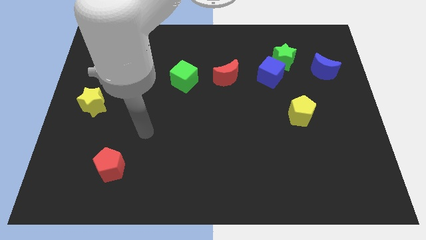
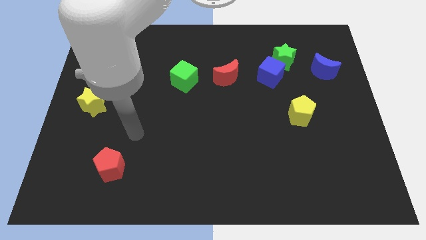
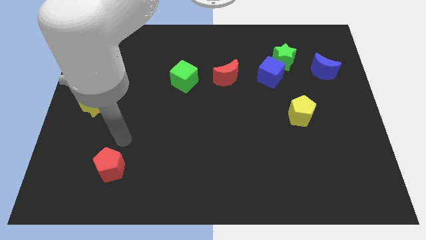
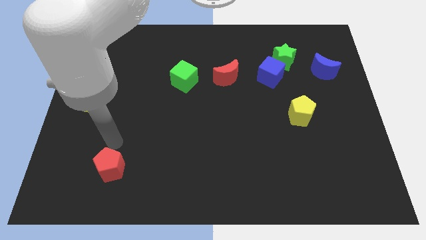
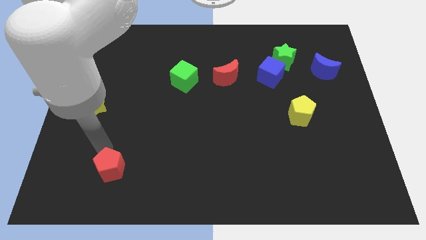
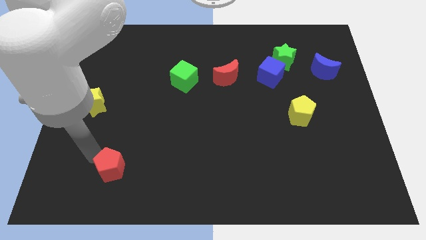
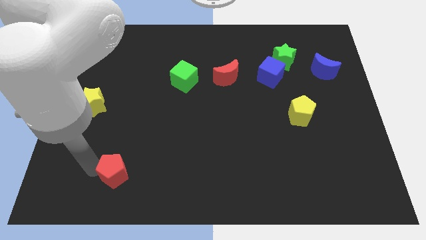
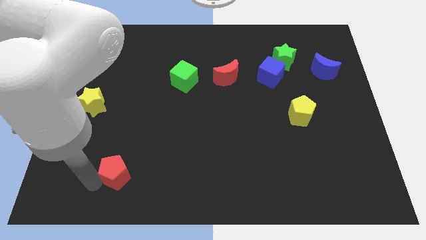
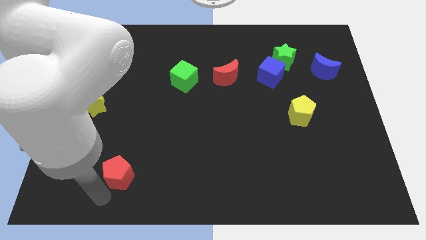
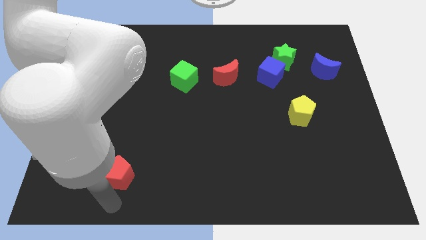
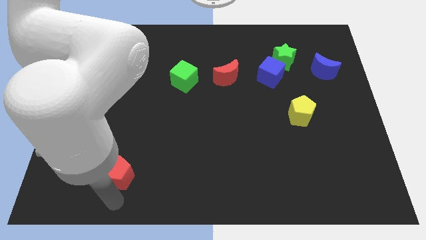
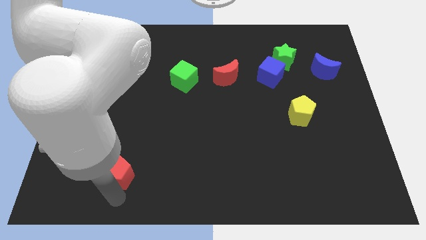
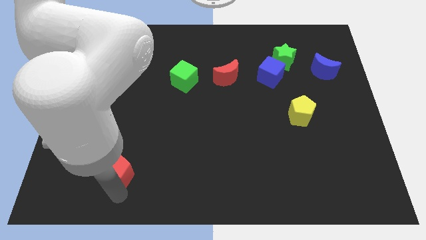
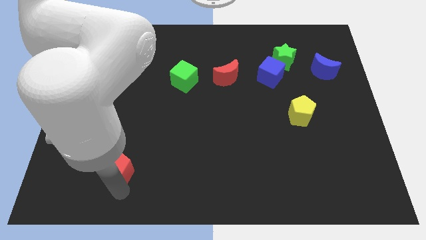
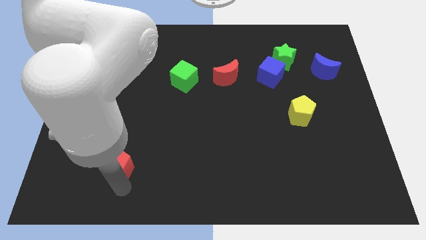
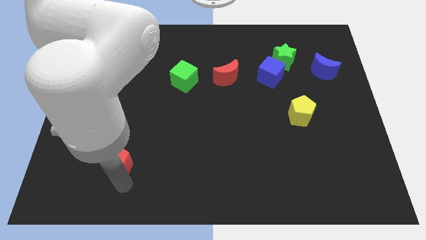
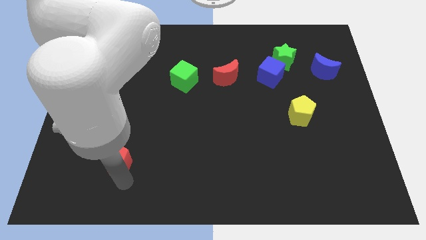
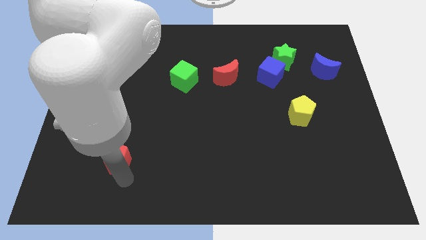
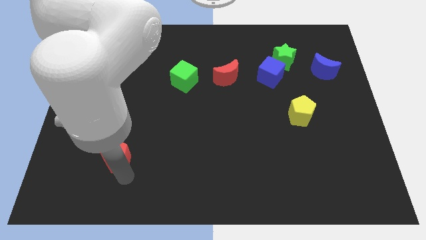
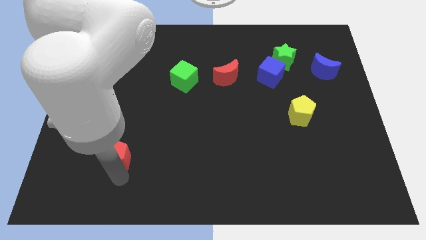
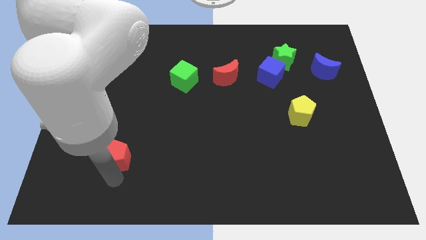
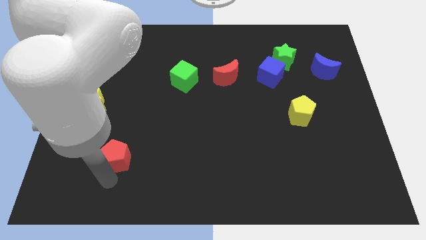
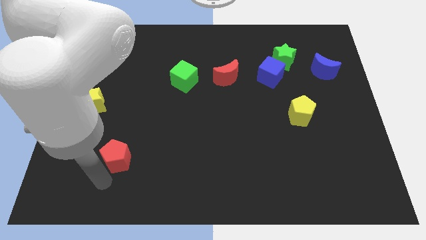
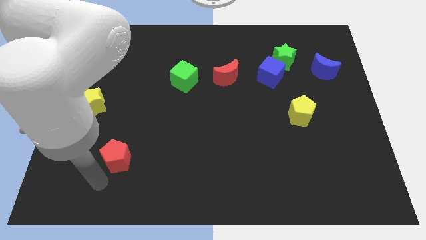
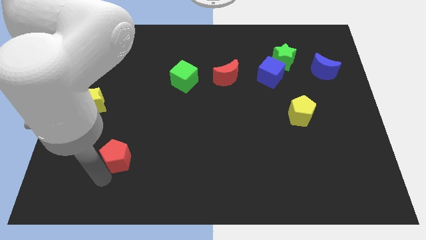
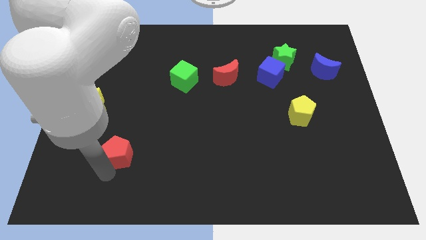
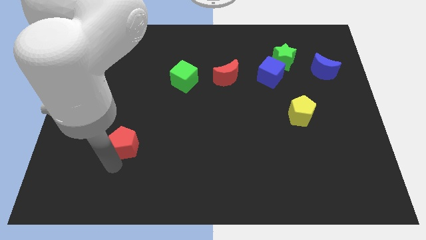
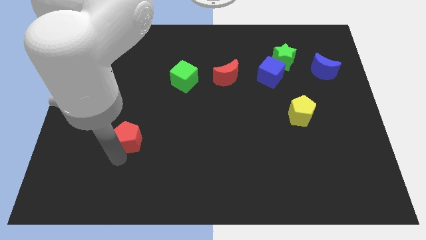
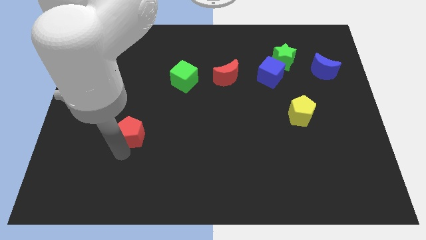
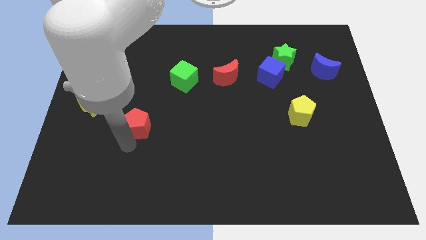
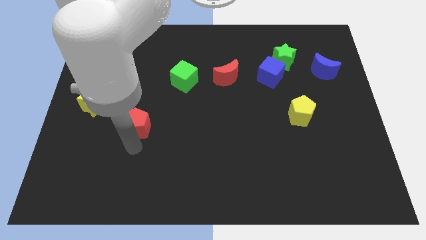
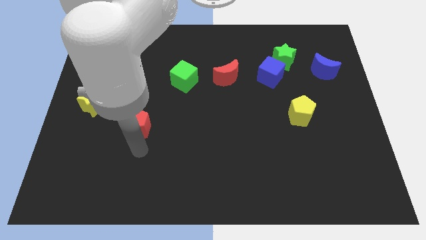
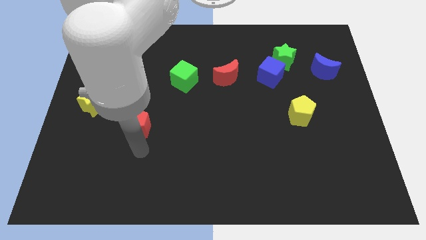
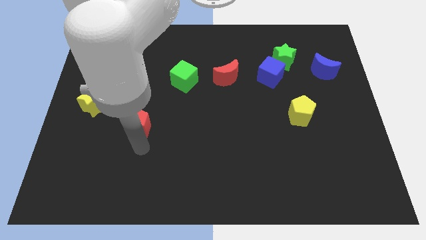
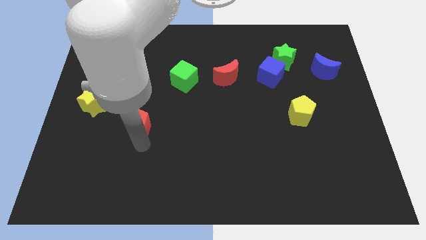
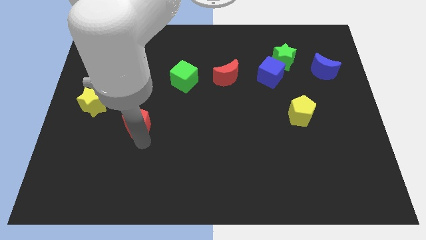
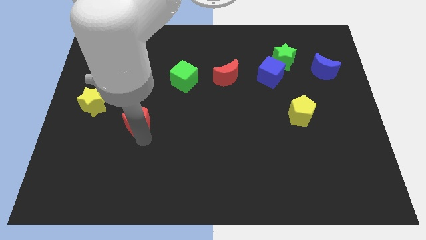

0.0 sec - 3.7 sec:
slide the red pentagon just right of the yellow star

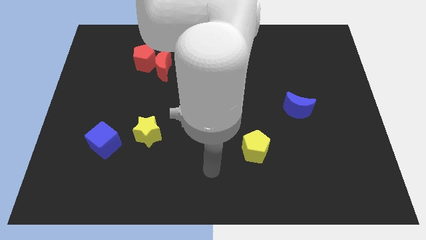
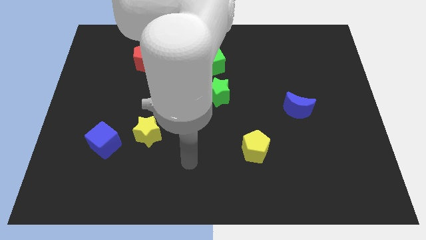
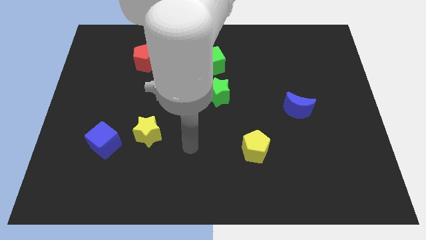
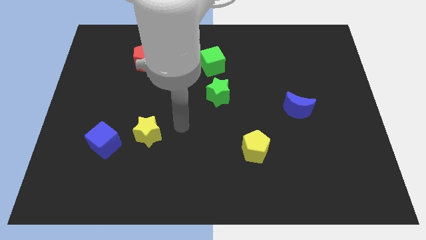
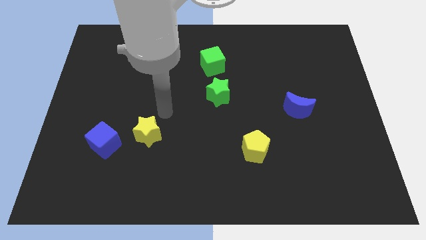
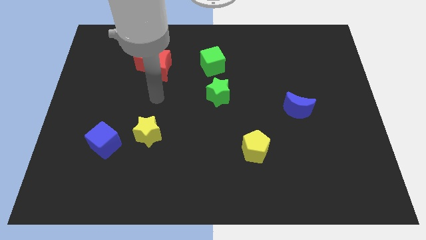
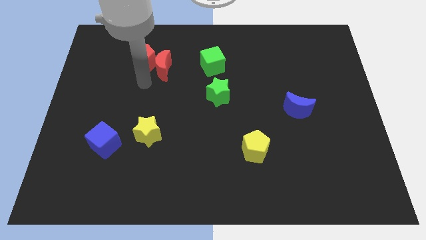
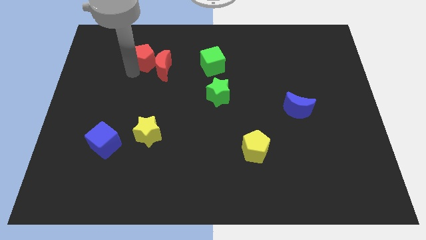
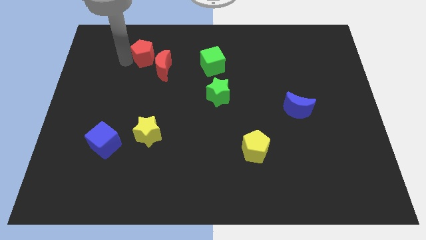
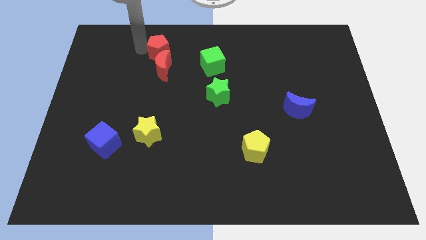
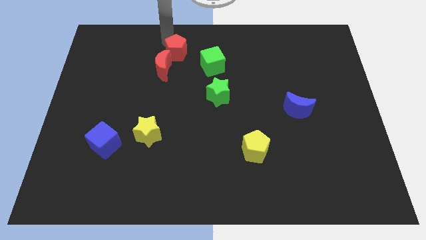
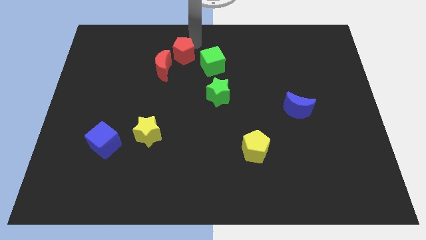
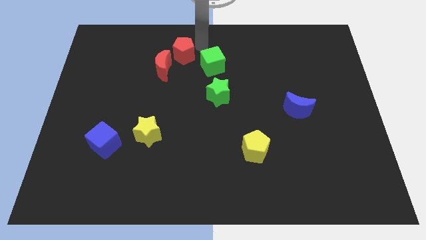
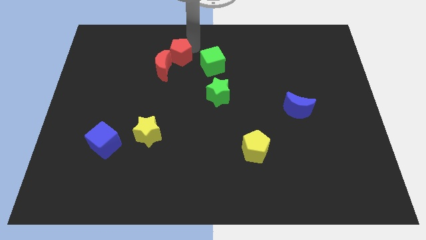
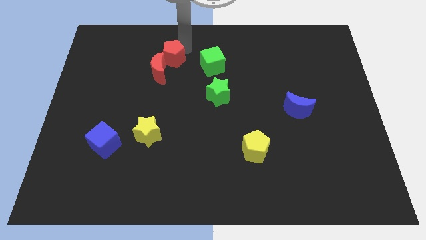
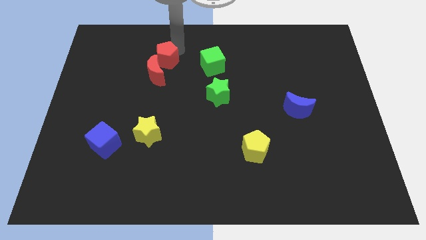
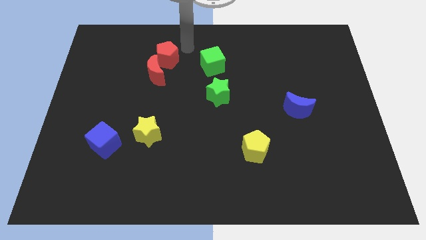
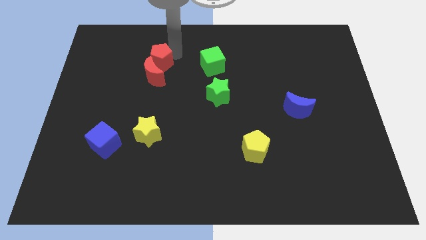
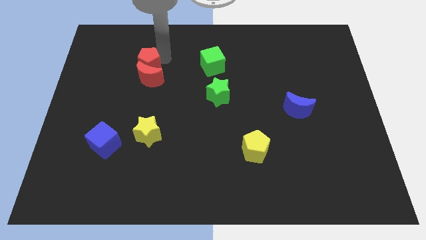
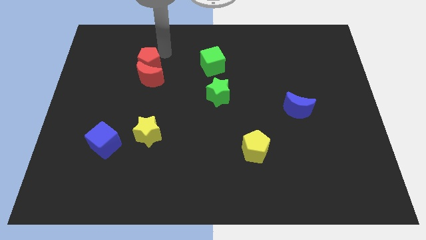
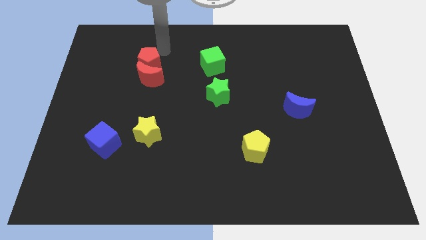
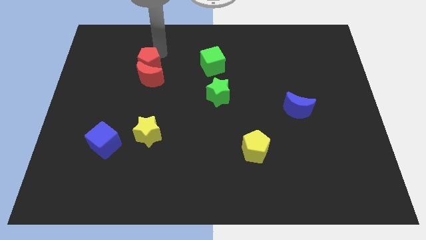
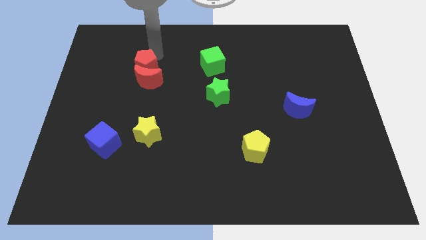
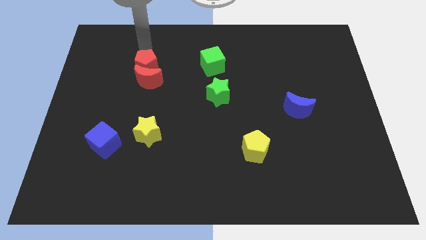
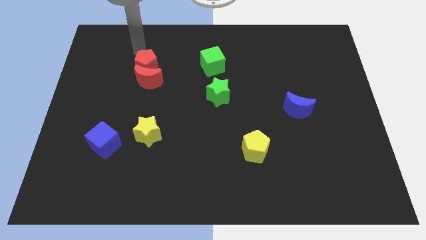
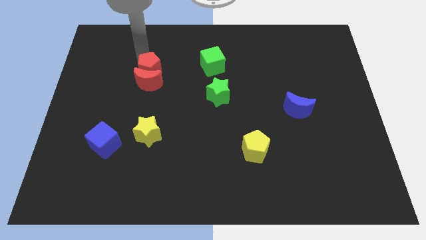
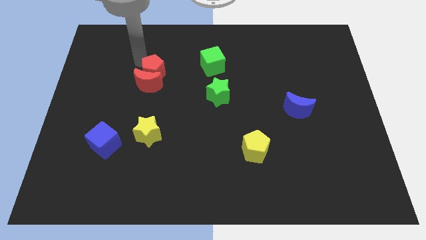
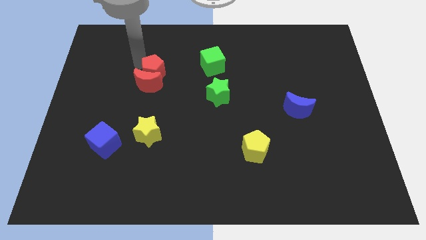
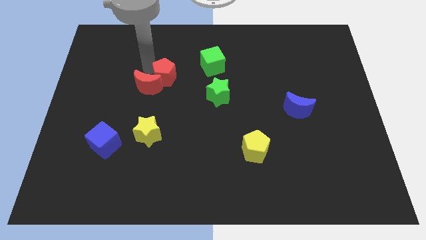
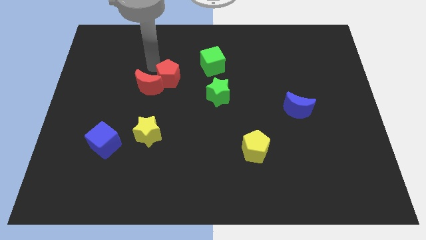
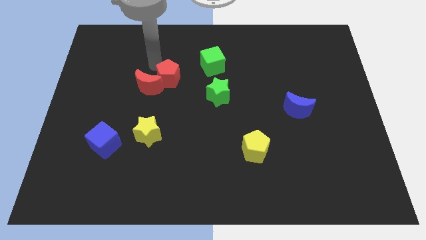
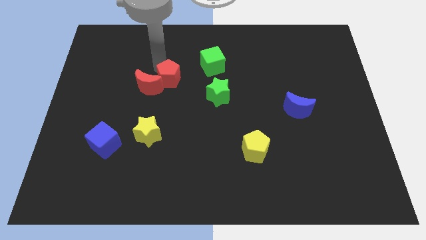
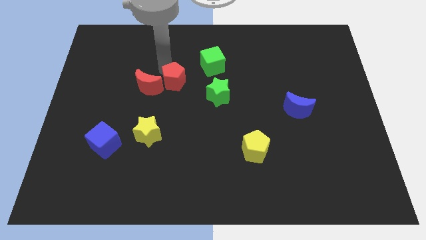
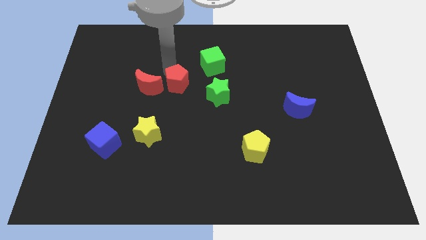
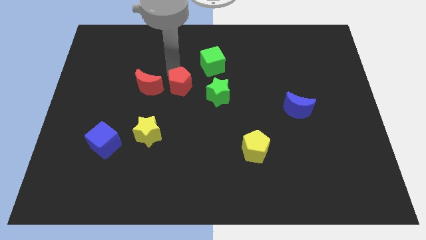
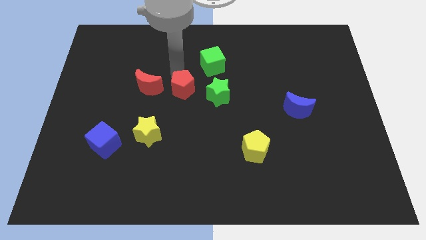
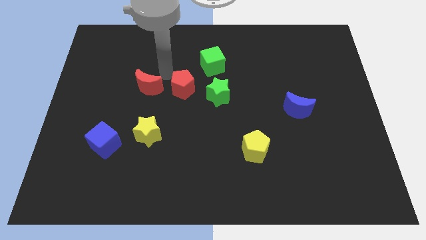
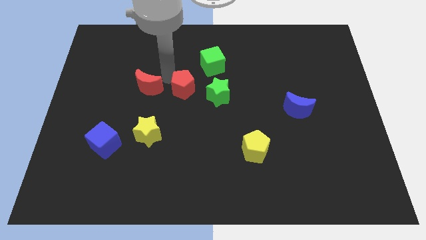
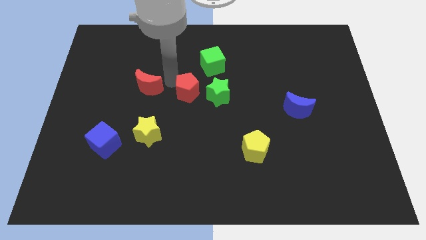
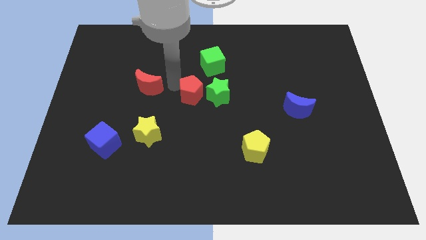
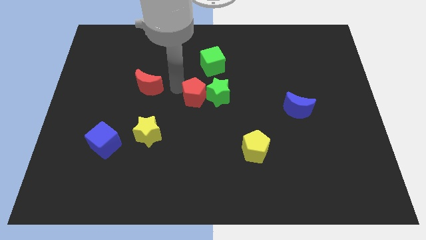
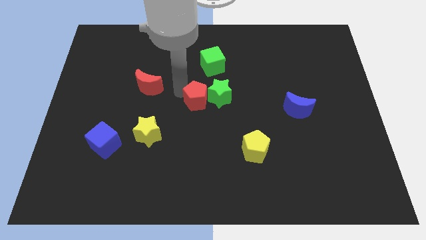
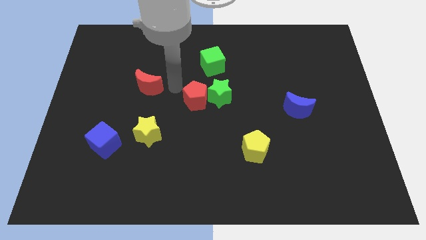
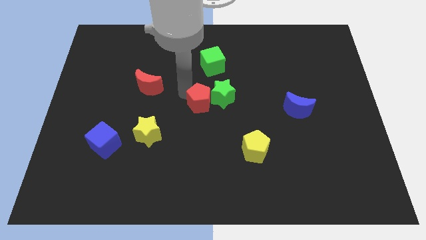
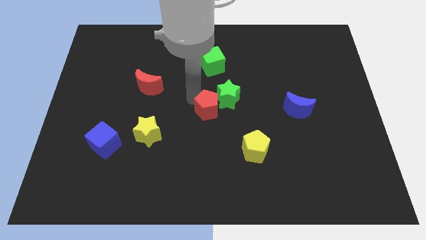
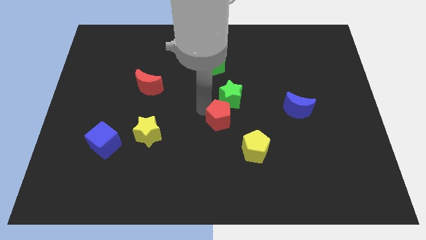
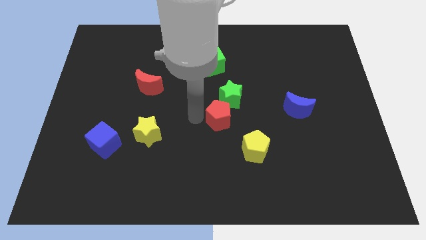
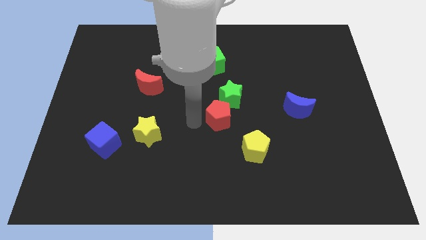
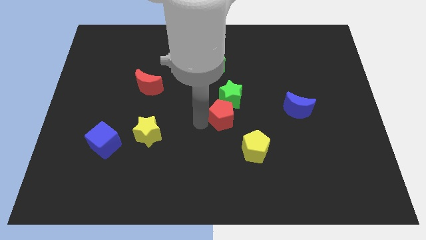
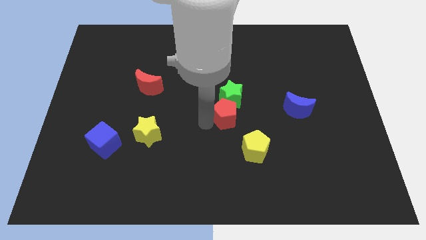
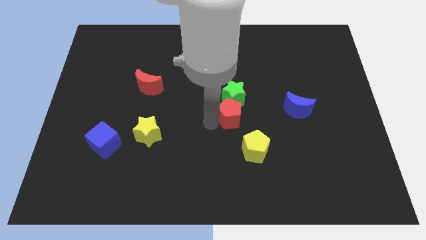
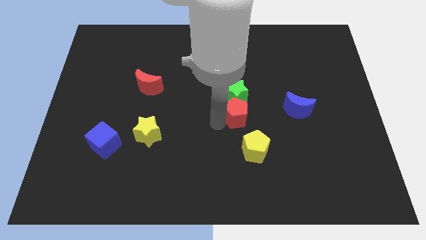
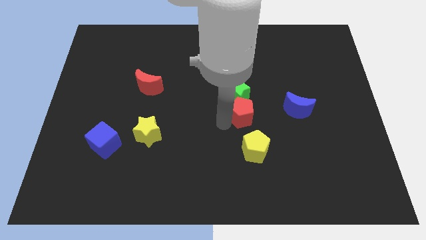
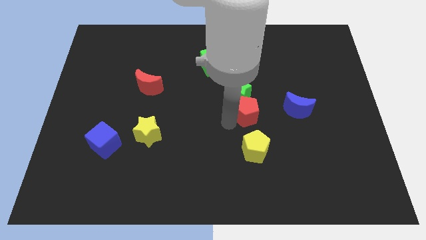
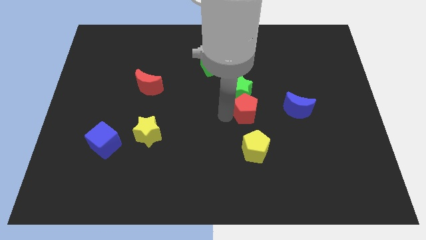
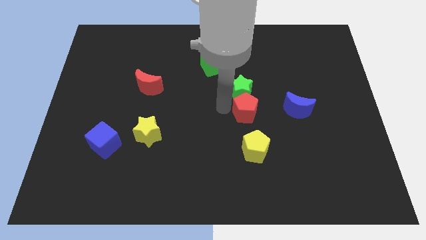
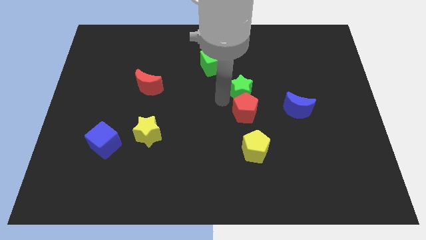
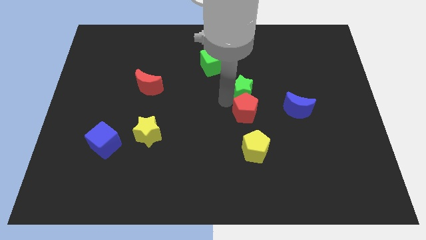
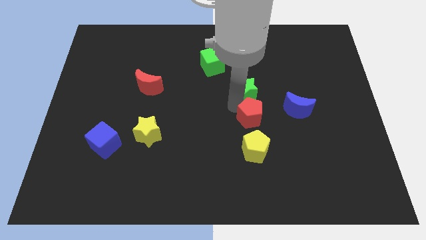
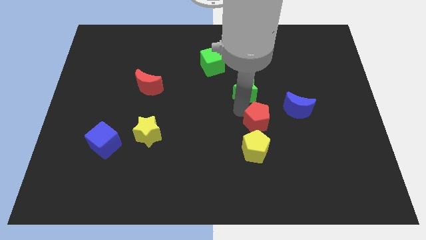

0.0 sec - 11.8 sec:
move the red pentagon to the top right of the yellow pentagon
